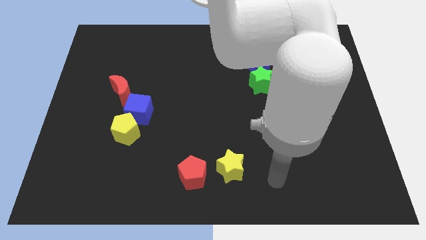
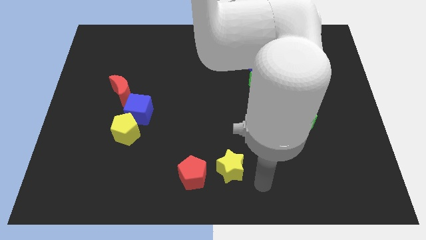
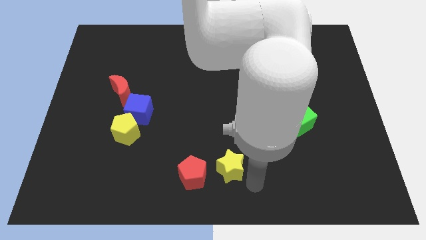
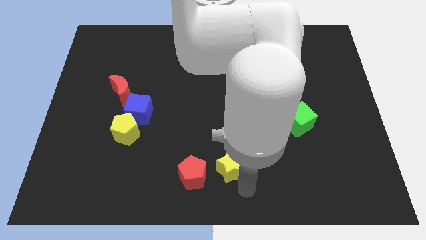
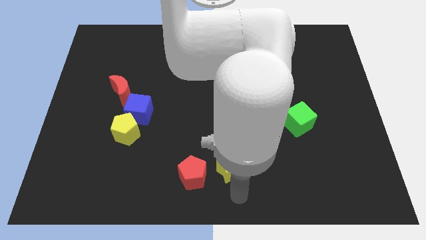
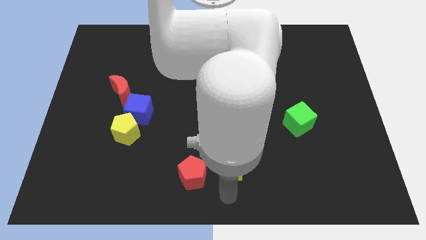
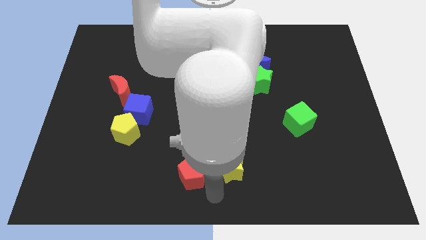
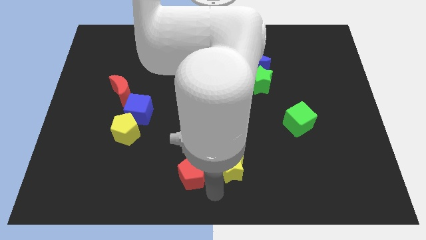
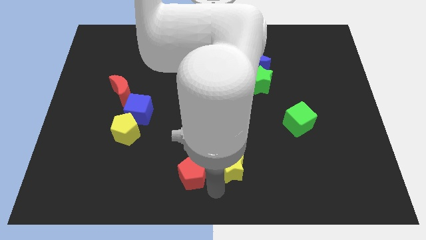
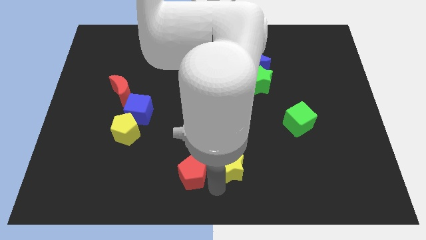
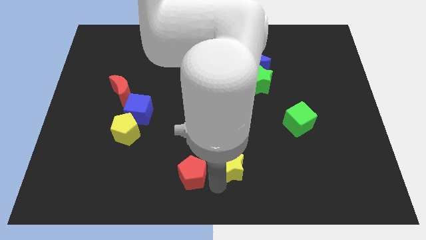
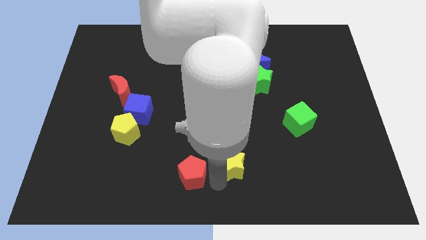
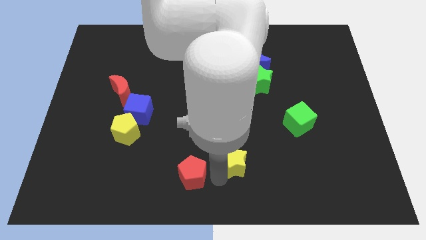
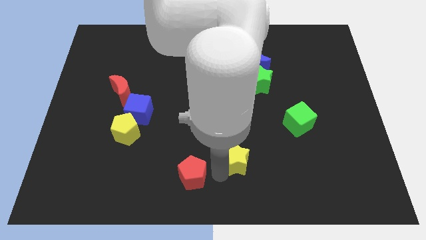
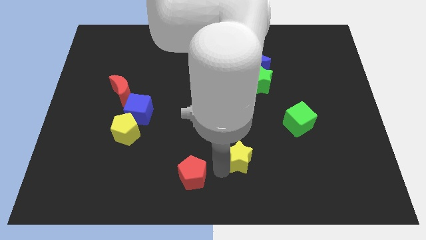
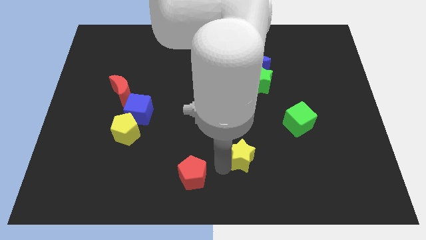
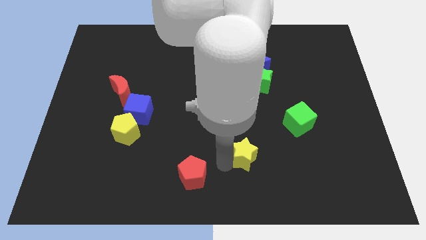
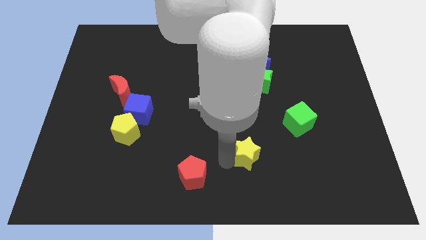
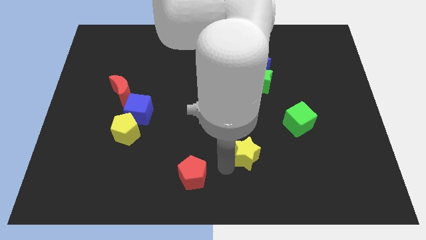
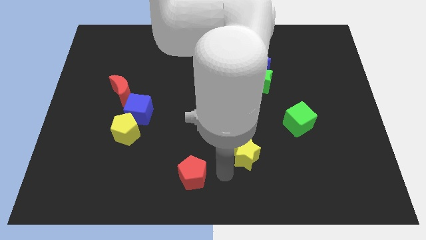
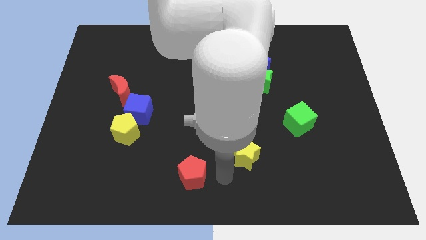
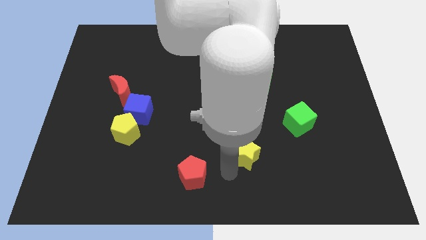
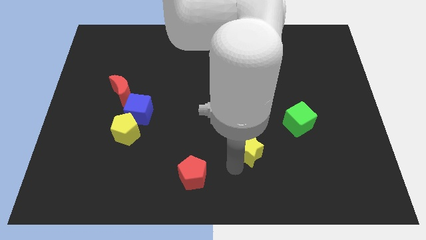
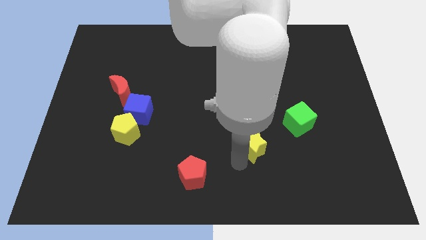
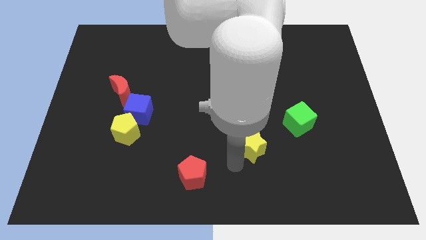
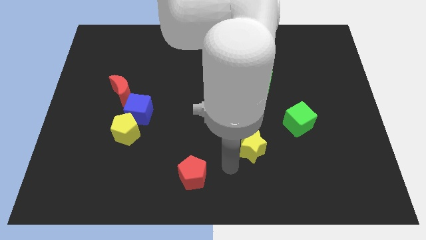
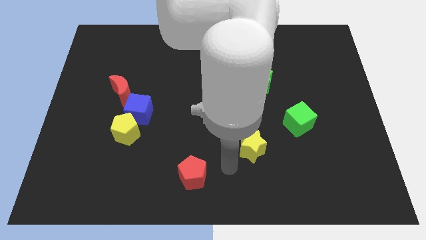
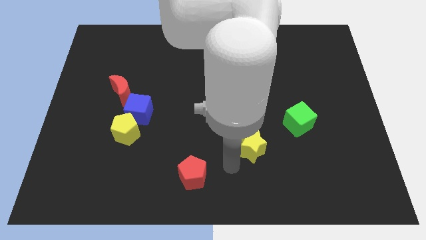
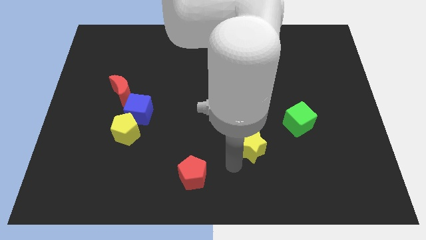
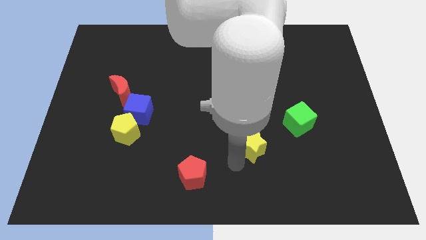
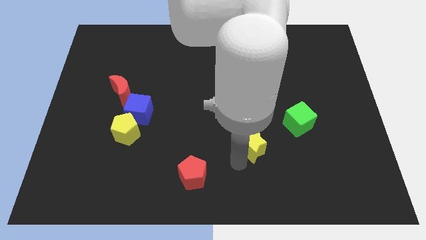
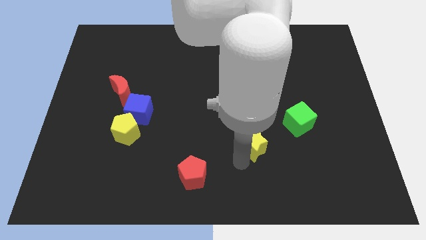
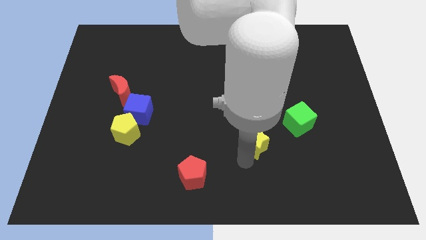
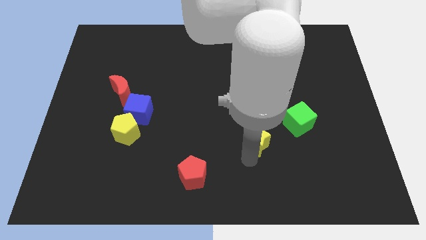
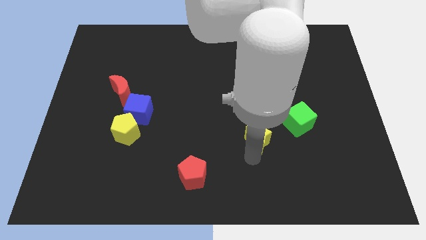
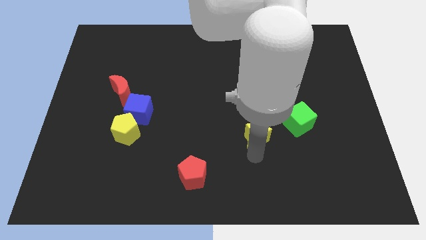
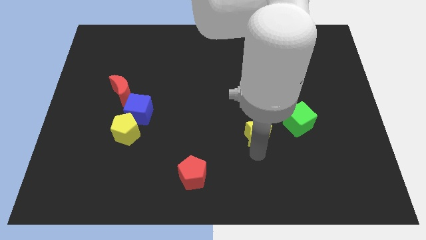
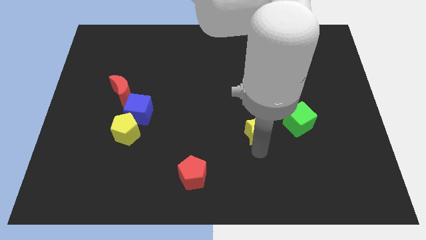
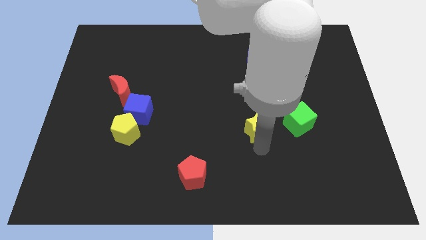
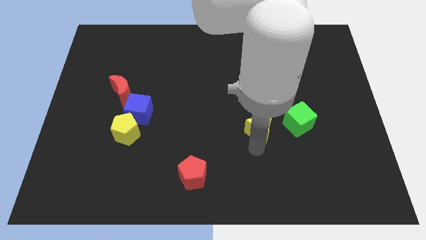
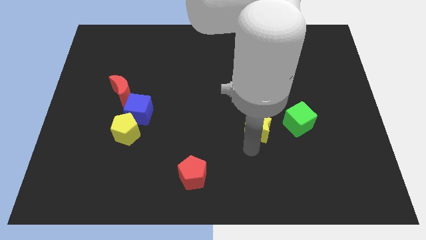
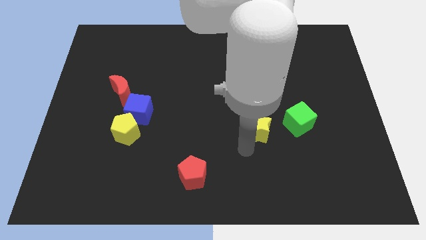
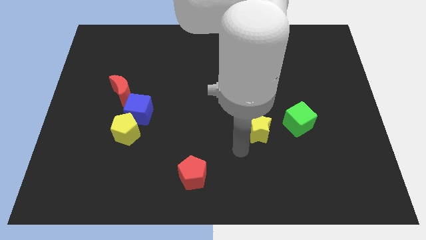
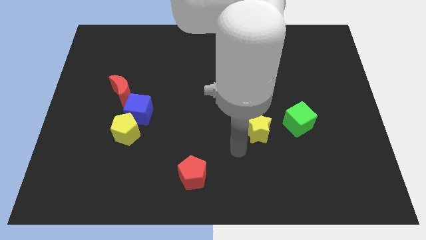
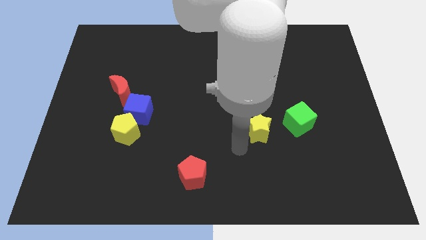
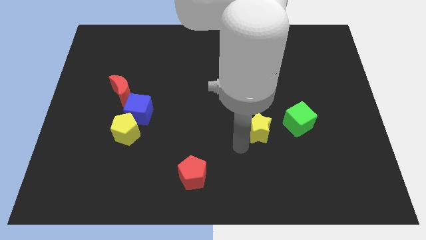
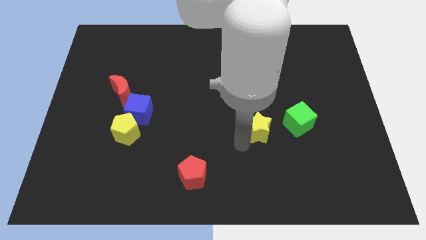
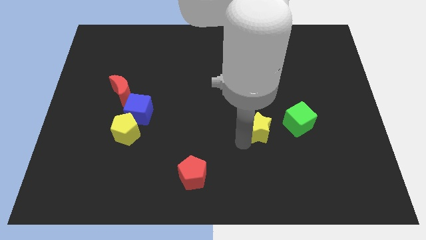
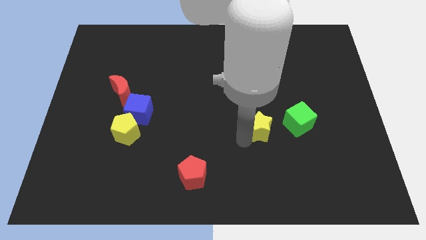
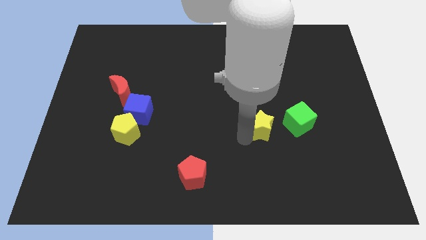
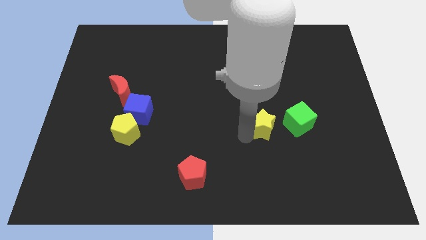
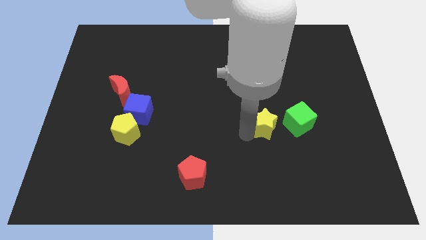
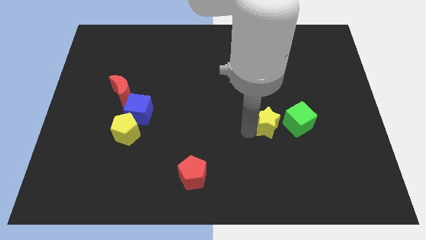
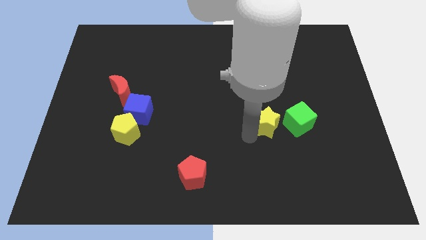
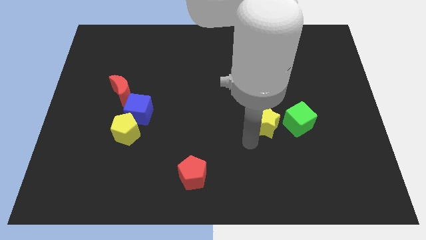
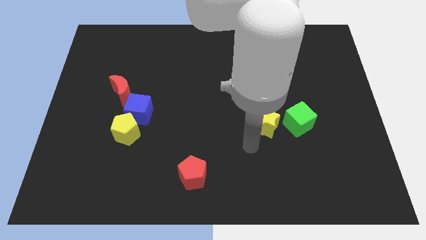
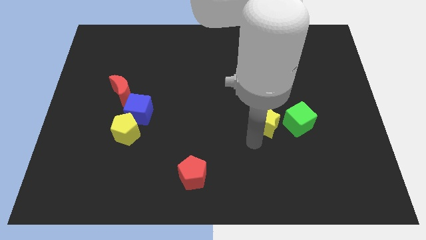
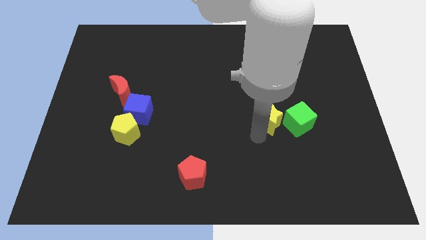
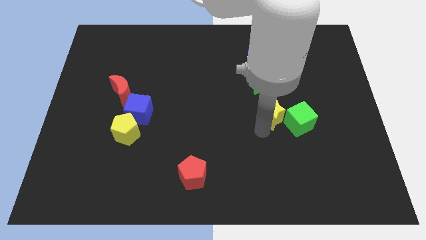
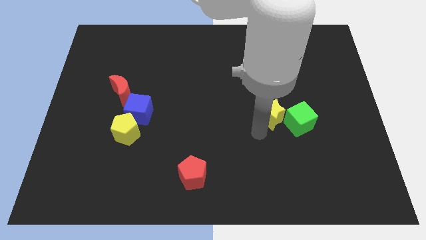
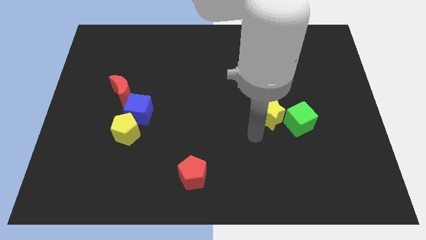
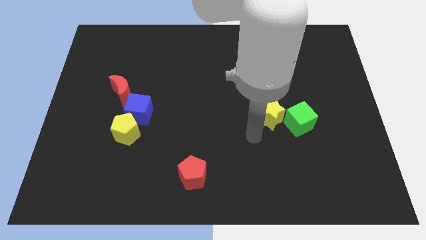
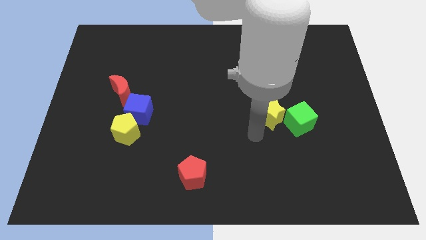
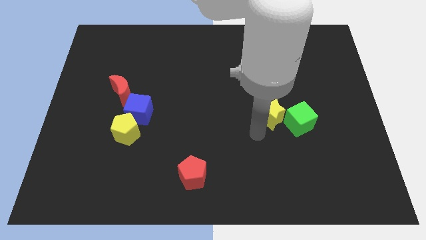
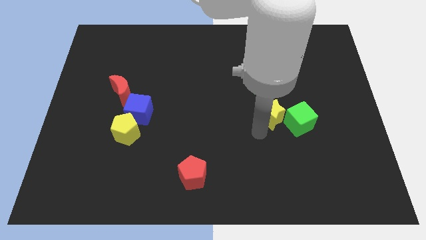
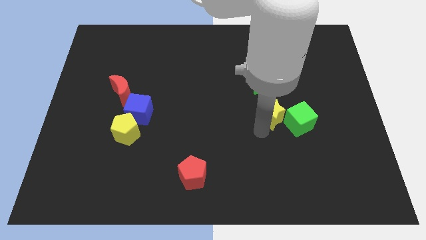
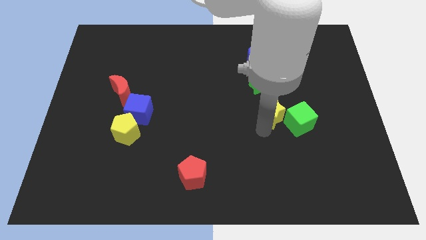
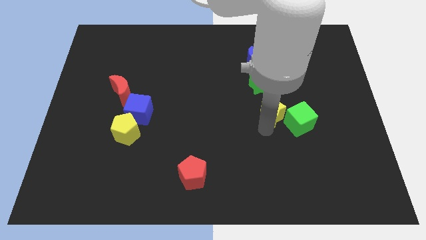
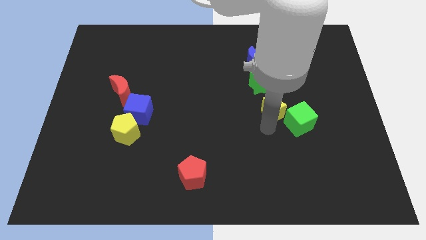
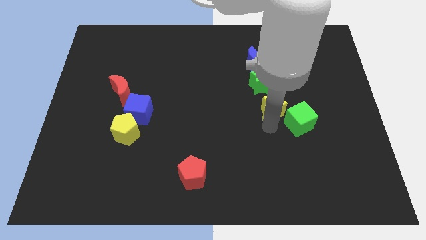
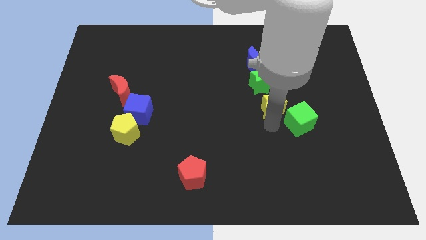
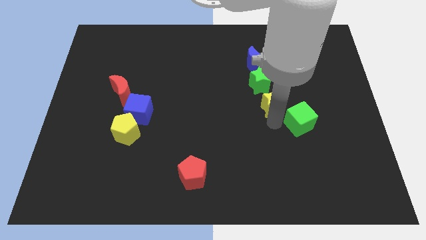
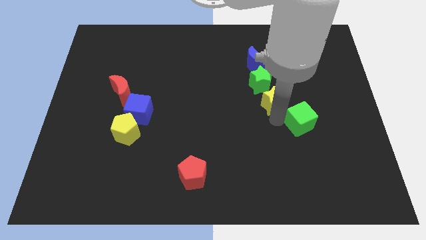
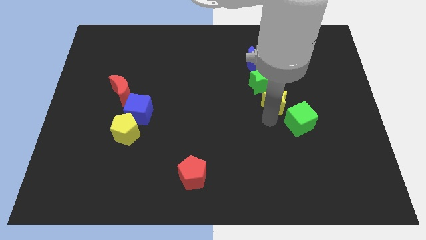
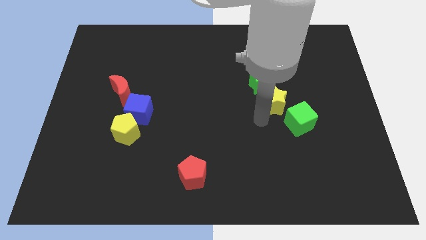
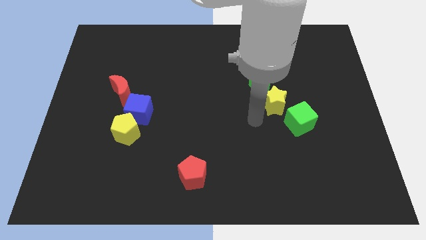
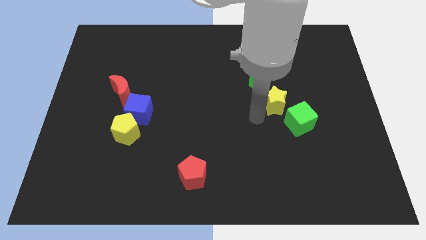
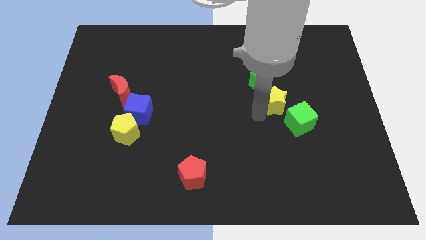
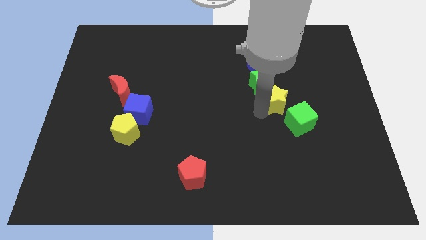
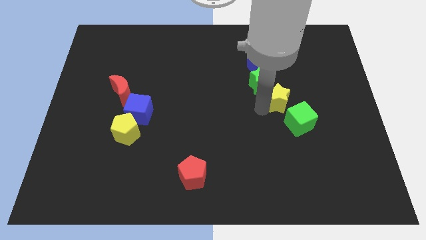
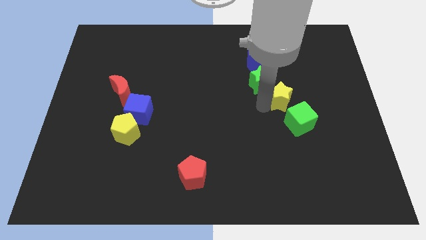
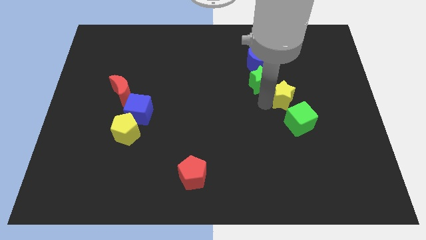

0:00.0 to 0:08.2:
move the yellow star right of the green star
